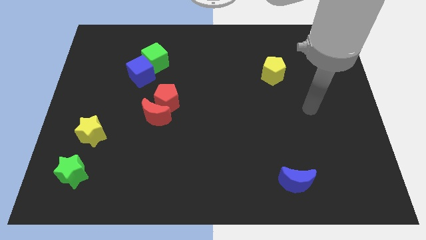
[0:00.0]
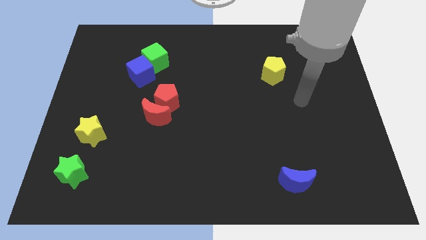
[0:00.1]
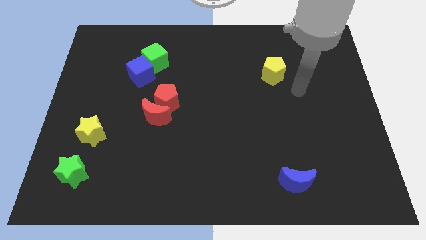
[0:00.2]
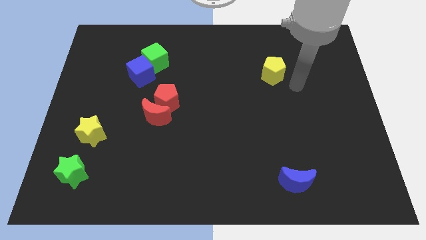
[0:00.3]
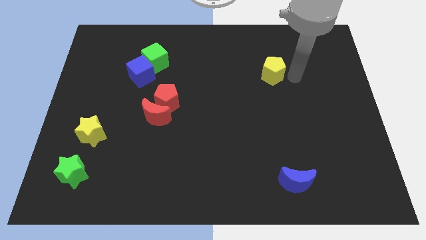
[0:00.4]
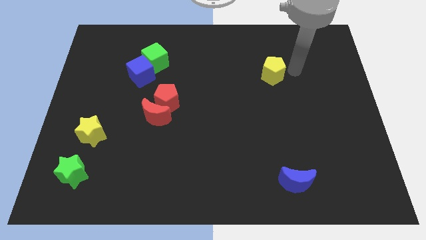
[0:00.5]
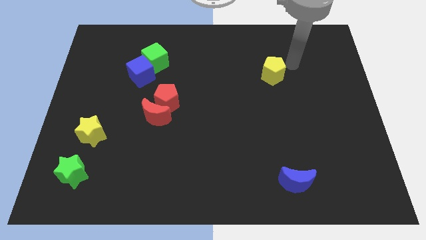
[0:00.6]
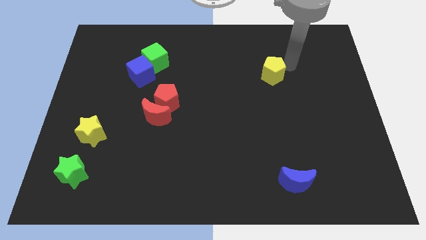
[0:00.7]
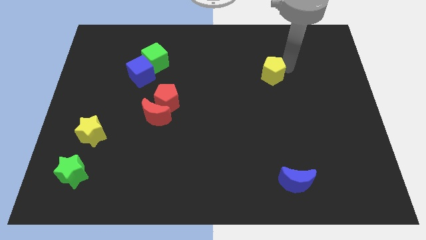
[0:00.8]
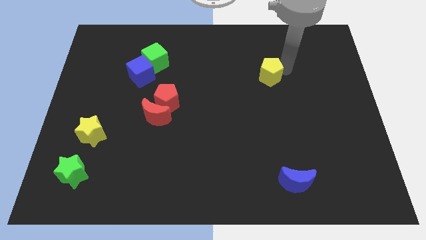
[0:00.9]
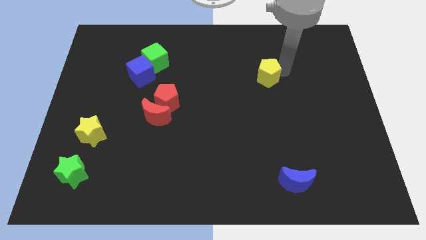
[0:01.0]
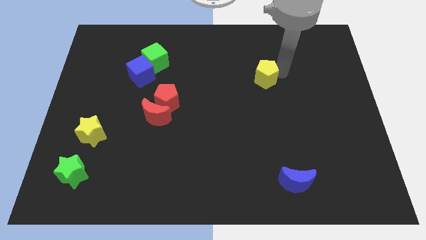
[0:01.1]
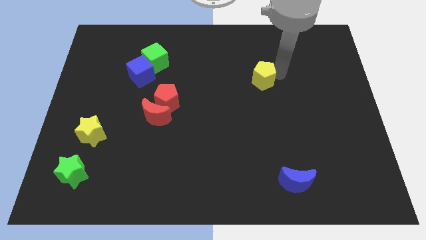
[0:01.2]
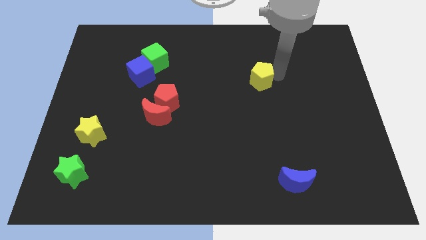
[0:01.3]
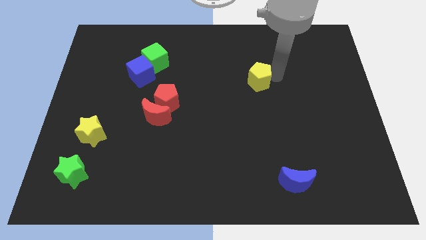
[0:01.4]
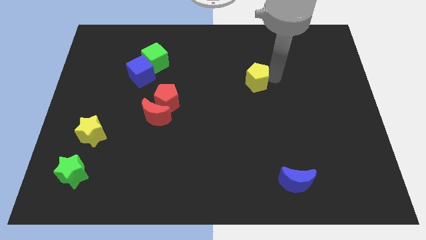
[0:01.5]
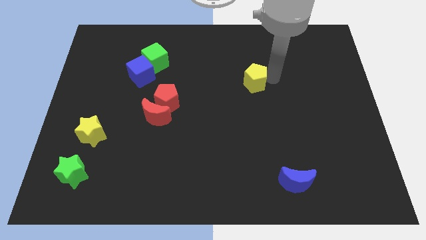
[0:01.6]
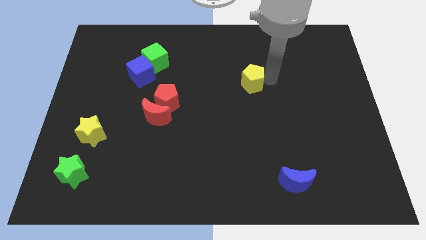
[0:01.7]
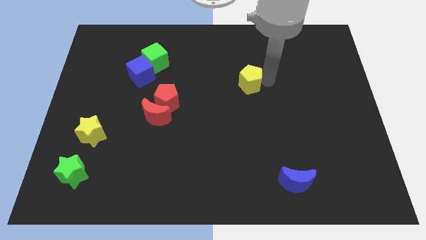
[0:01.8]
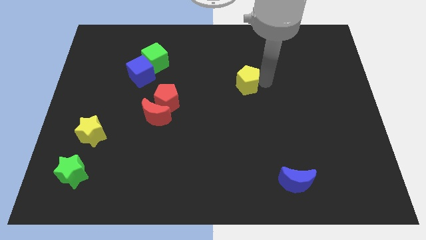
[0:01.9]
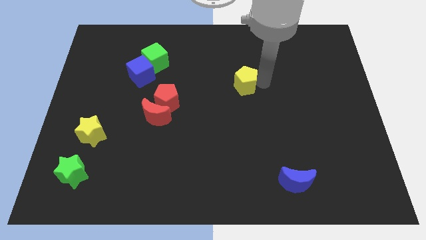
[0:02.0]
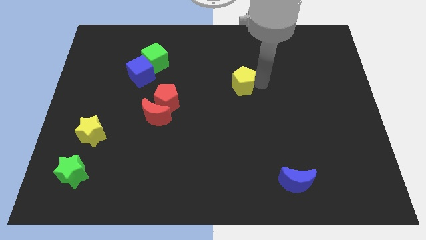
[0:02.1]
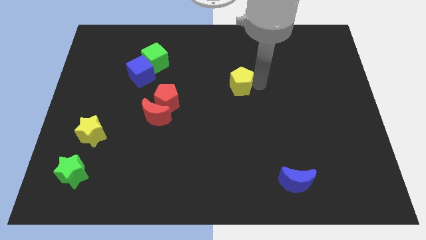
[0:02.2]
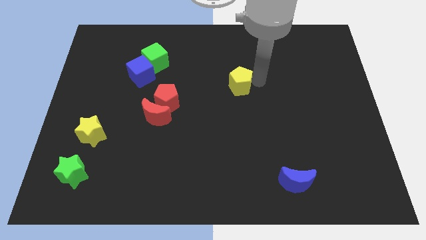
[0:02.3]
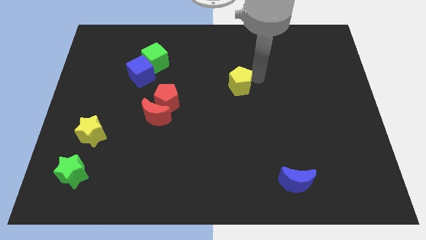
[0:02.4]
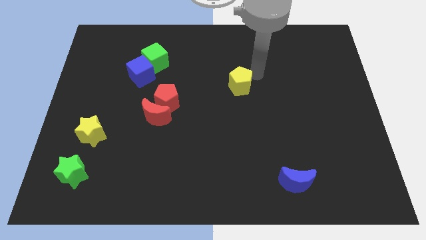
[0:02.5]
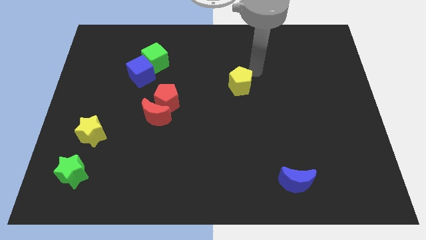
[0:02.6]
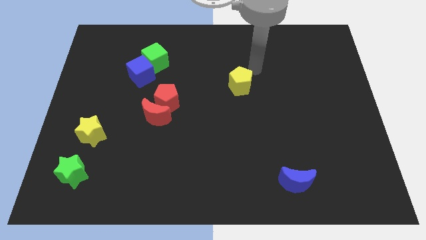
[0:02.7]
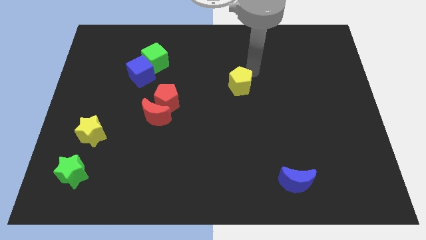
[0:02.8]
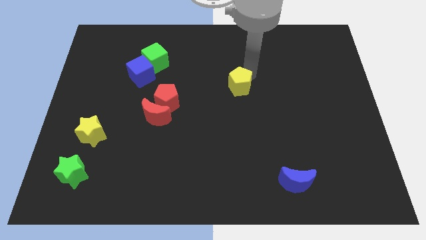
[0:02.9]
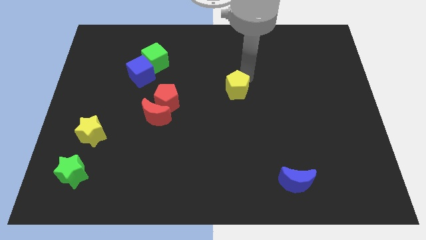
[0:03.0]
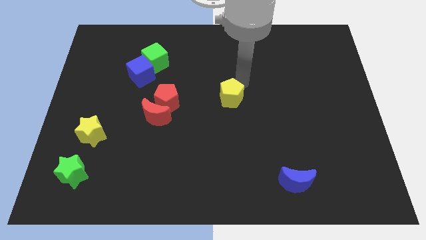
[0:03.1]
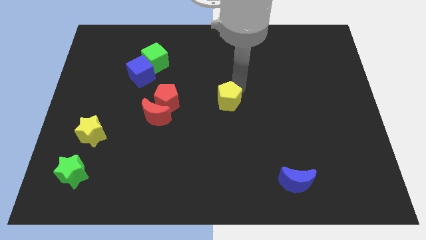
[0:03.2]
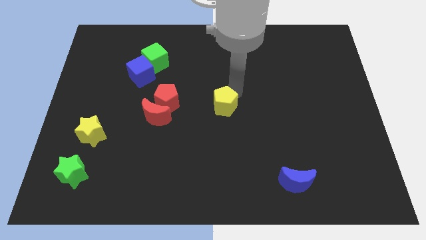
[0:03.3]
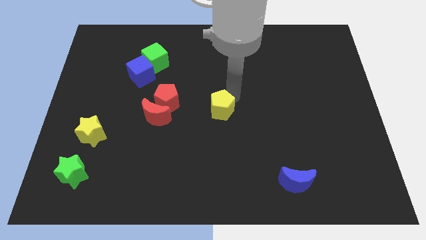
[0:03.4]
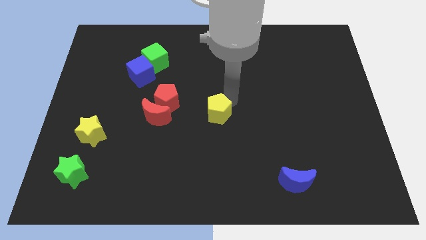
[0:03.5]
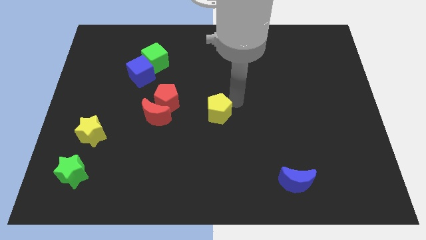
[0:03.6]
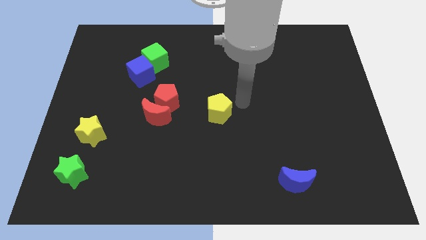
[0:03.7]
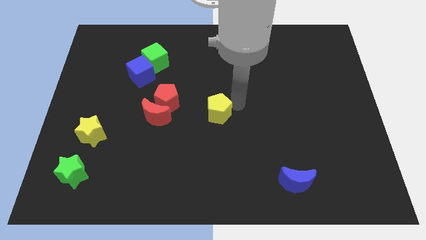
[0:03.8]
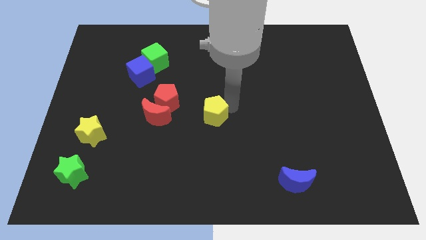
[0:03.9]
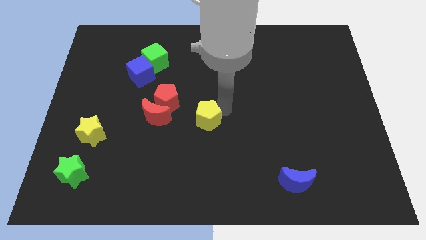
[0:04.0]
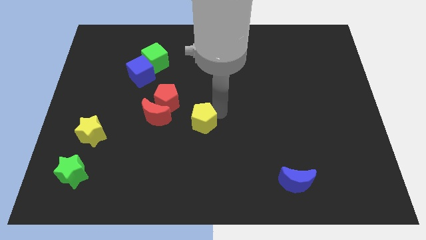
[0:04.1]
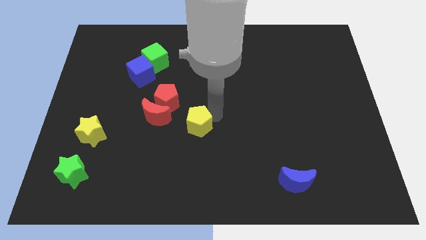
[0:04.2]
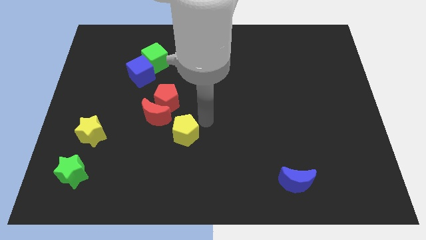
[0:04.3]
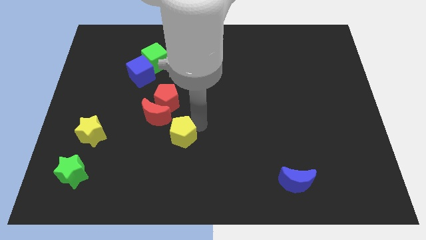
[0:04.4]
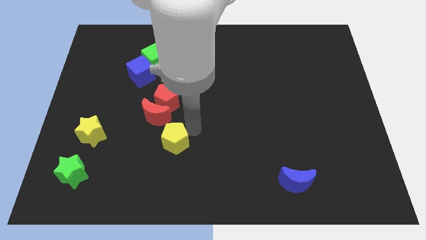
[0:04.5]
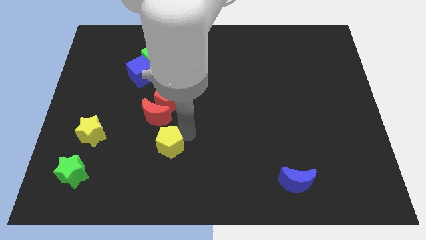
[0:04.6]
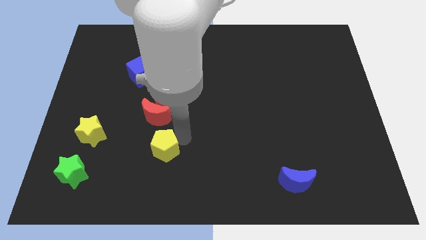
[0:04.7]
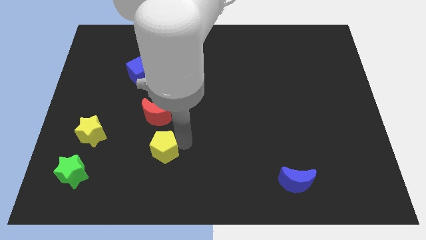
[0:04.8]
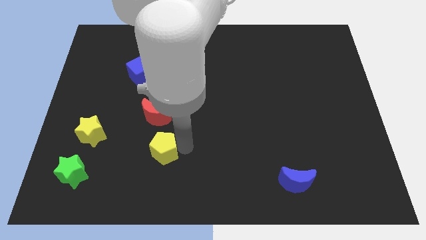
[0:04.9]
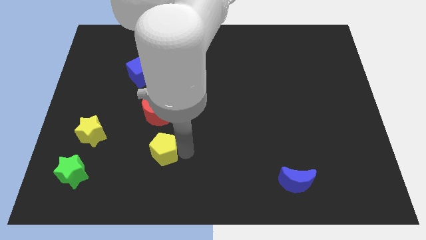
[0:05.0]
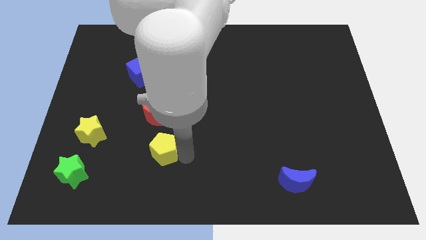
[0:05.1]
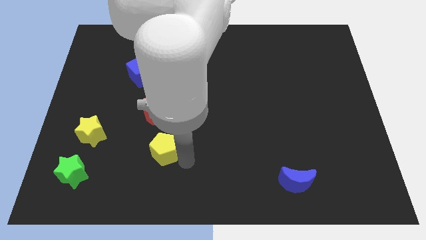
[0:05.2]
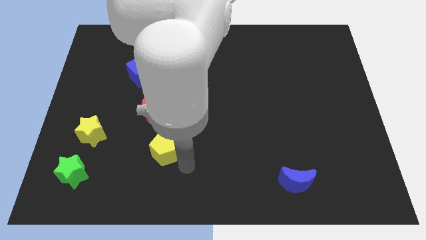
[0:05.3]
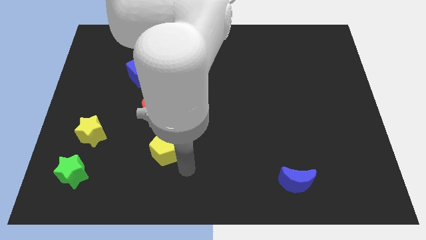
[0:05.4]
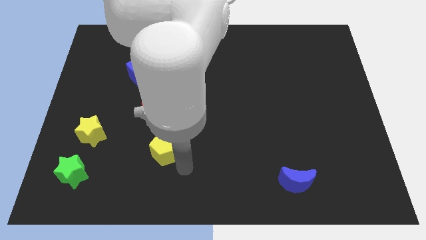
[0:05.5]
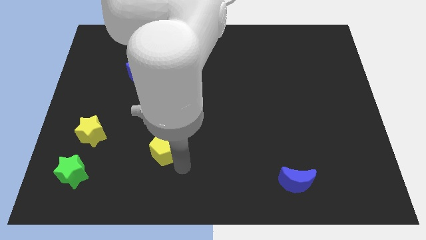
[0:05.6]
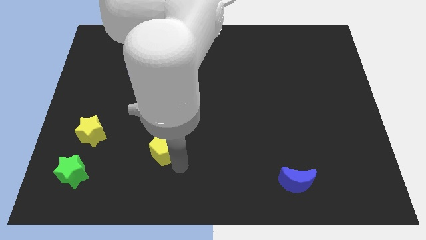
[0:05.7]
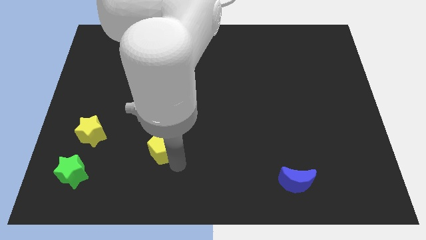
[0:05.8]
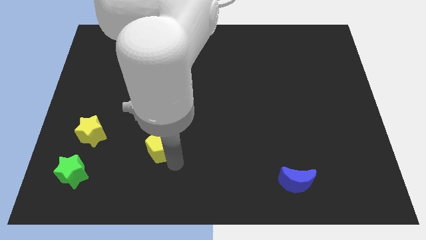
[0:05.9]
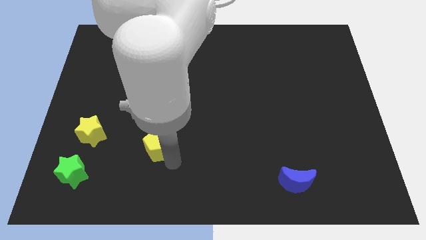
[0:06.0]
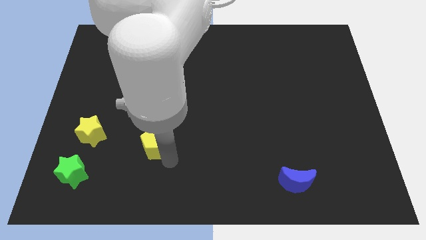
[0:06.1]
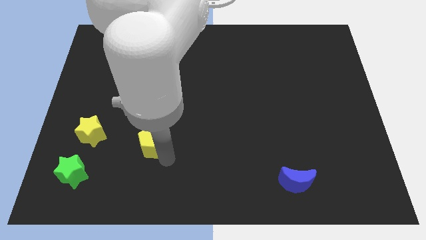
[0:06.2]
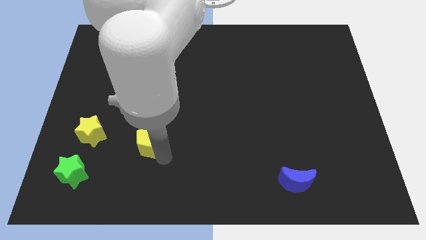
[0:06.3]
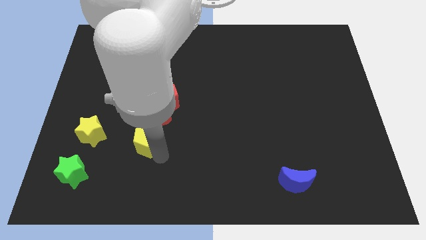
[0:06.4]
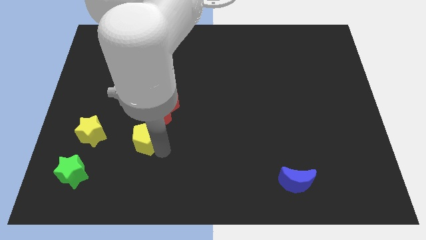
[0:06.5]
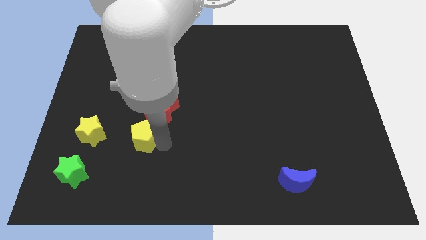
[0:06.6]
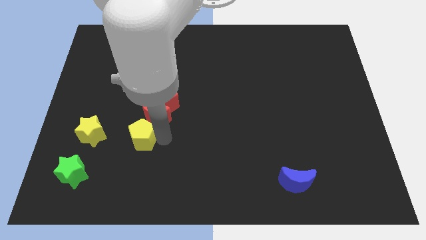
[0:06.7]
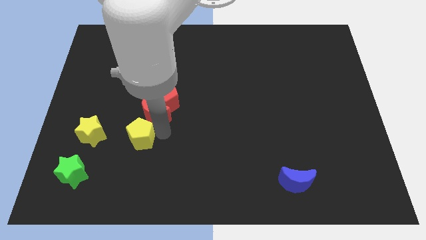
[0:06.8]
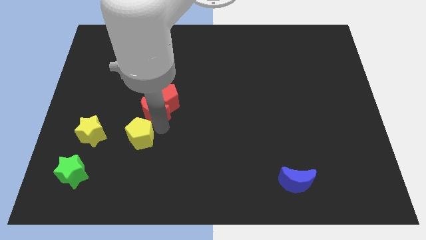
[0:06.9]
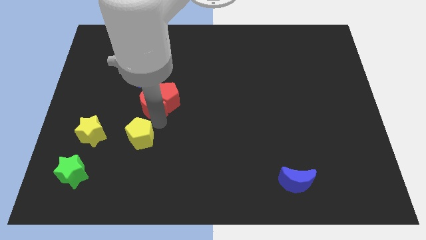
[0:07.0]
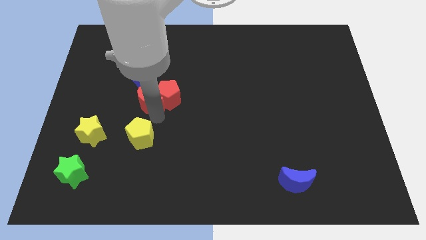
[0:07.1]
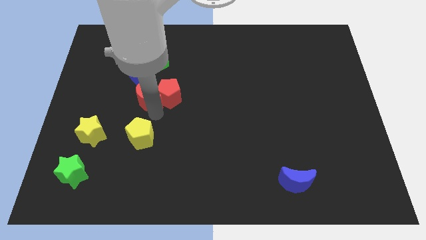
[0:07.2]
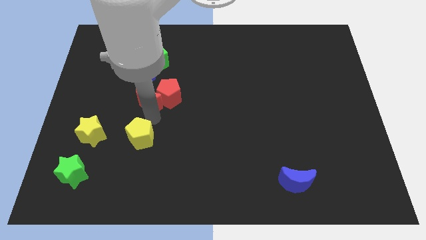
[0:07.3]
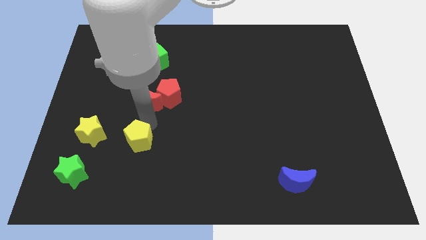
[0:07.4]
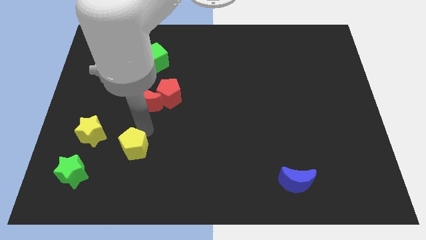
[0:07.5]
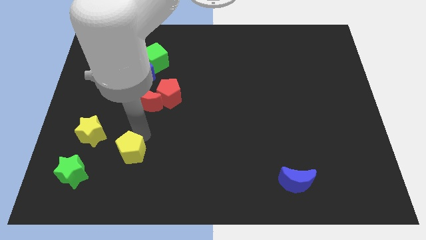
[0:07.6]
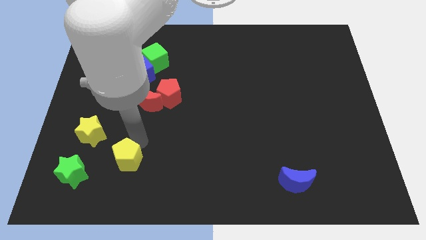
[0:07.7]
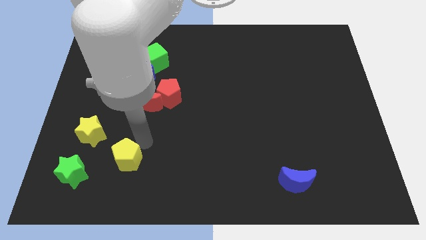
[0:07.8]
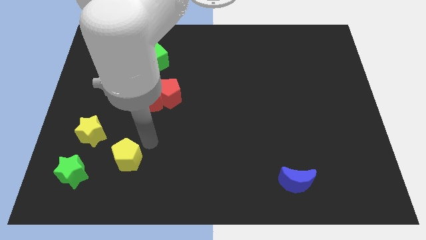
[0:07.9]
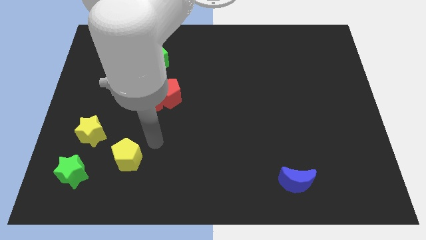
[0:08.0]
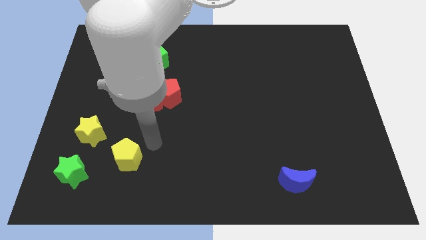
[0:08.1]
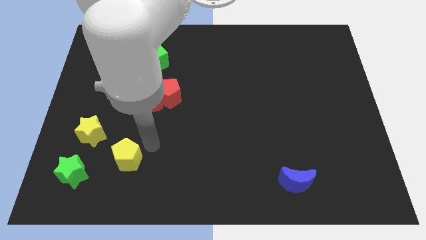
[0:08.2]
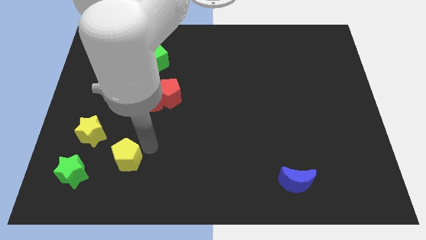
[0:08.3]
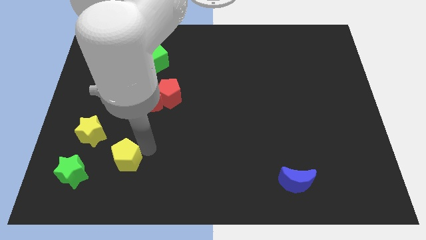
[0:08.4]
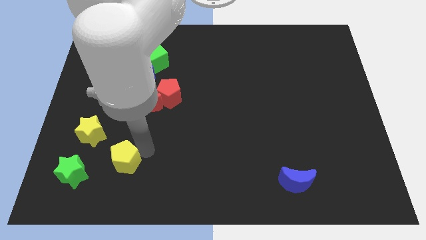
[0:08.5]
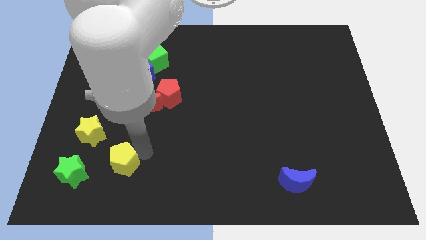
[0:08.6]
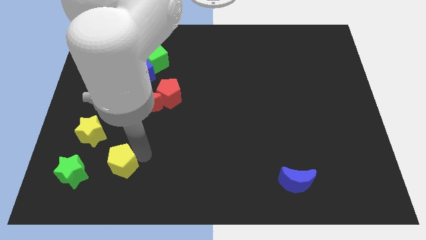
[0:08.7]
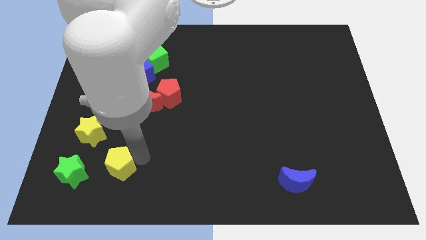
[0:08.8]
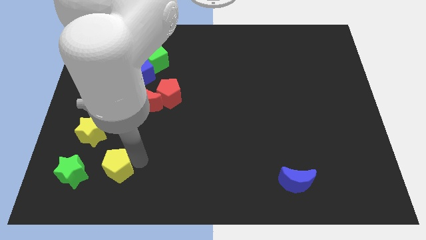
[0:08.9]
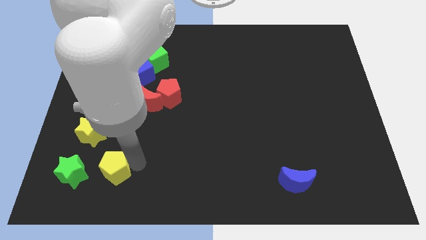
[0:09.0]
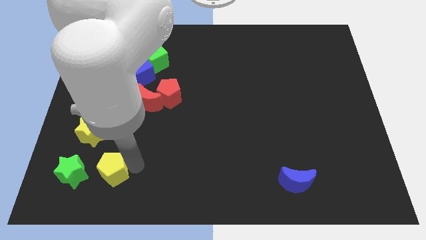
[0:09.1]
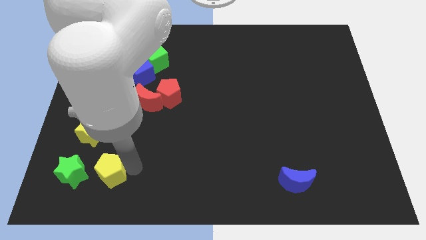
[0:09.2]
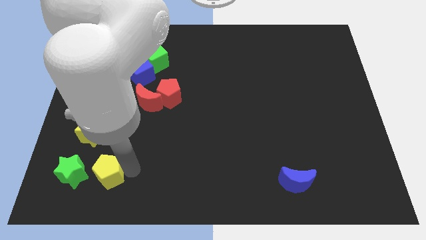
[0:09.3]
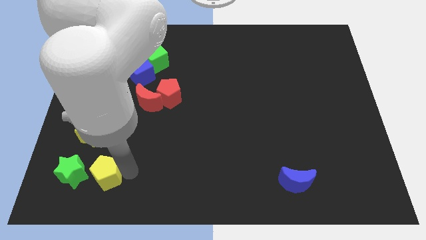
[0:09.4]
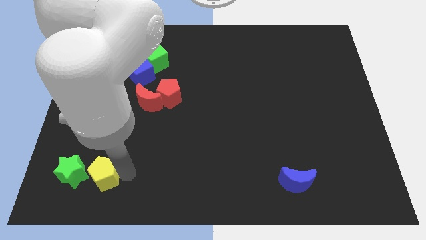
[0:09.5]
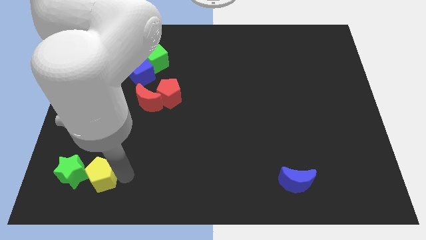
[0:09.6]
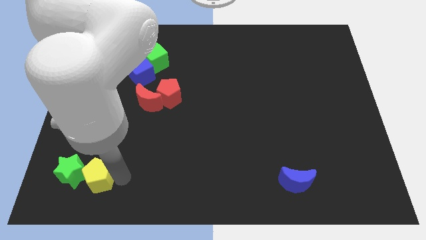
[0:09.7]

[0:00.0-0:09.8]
slide the yellow pentagon next to the green star
